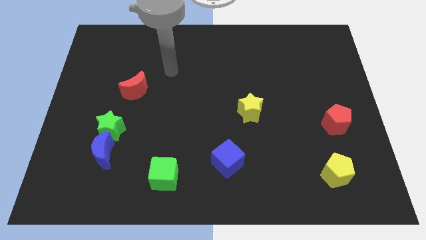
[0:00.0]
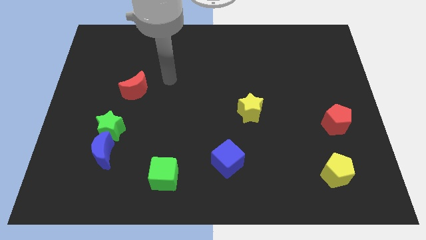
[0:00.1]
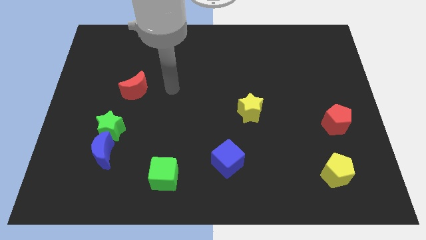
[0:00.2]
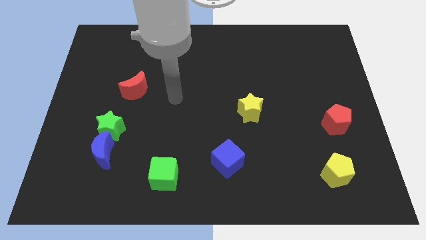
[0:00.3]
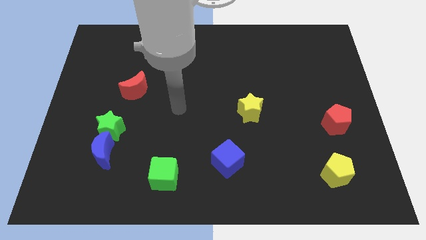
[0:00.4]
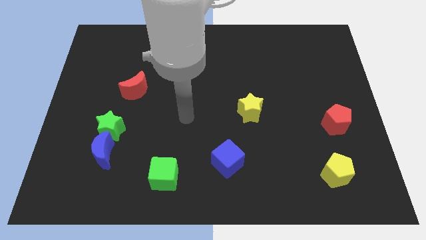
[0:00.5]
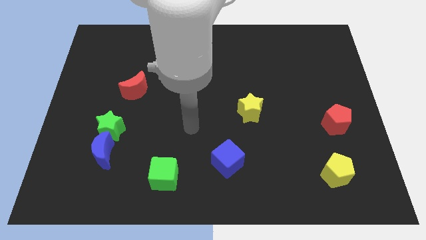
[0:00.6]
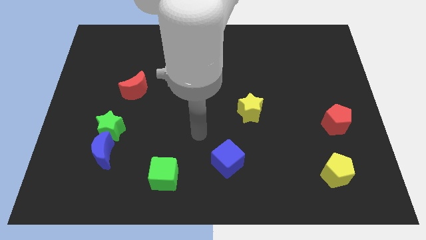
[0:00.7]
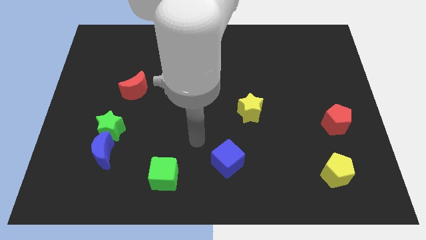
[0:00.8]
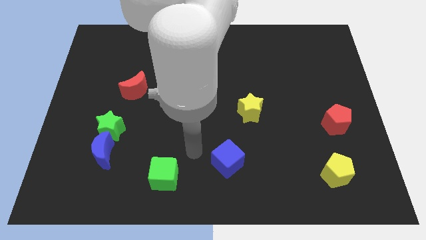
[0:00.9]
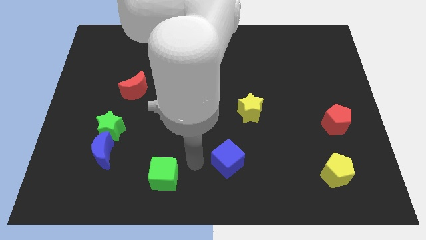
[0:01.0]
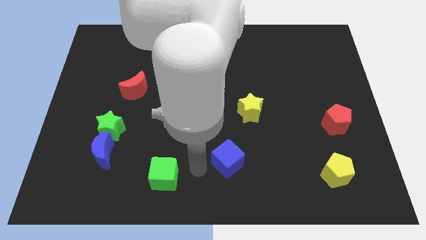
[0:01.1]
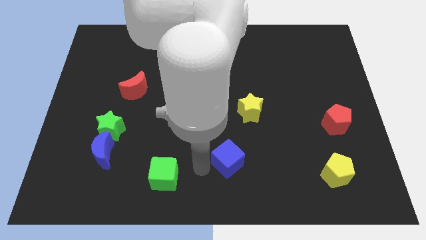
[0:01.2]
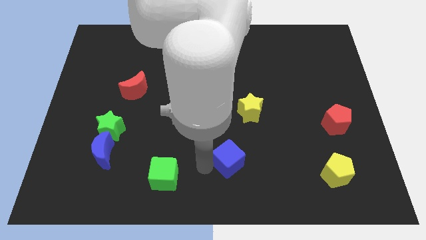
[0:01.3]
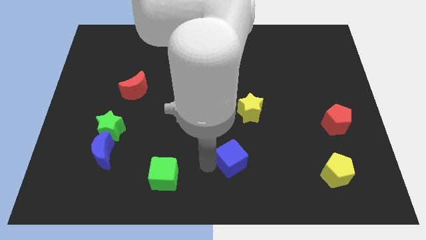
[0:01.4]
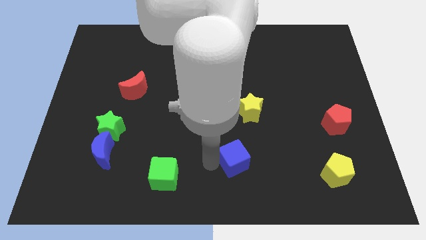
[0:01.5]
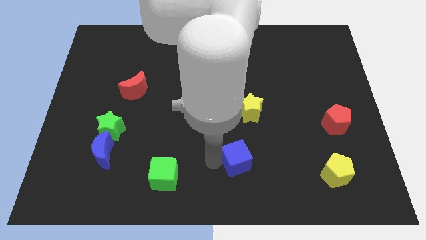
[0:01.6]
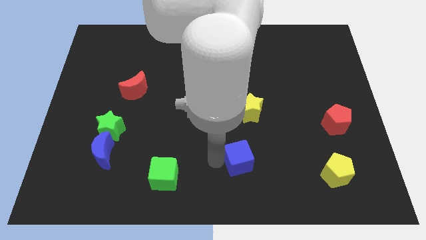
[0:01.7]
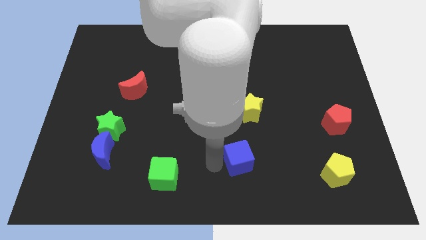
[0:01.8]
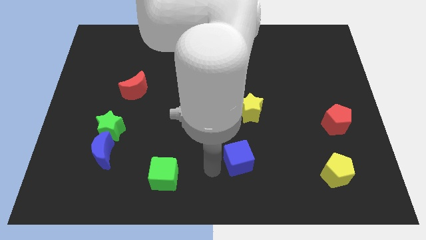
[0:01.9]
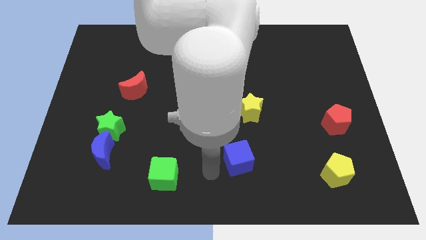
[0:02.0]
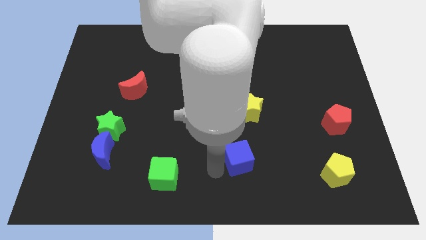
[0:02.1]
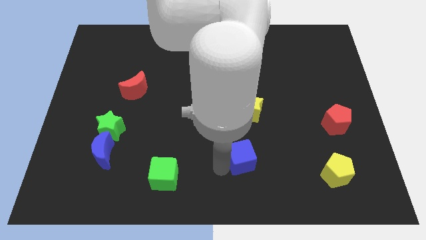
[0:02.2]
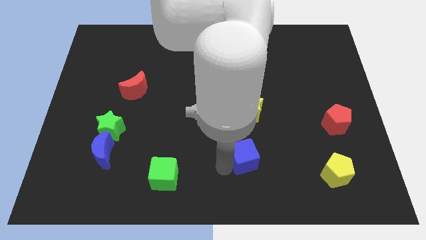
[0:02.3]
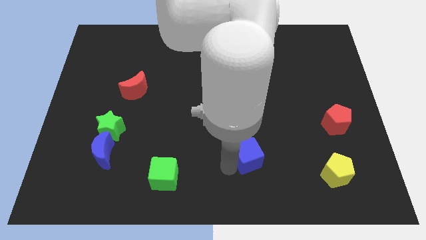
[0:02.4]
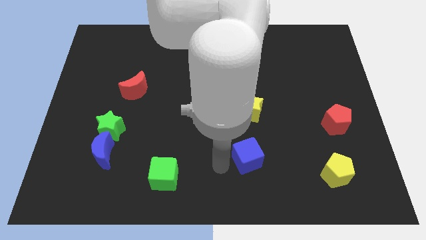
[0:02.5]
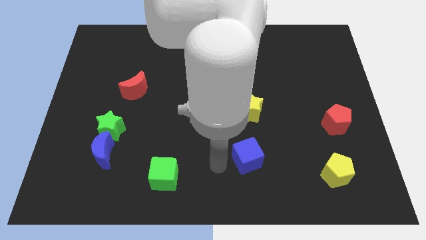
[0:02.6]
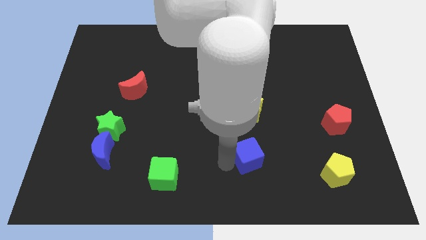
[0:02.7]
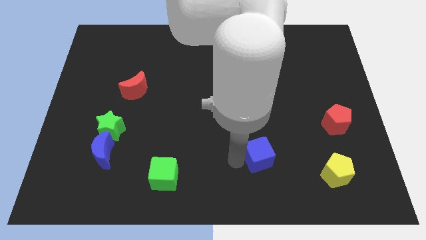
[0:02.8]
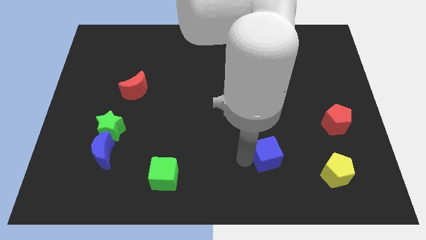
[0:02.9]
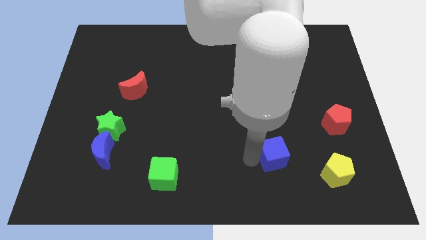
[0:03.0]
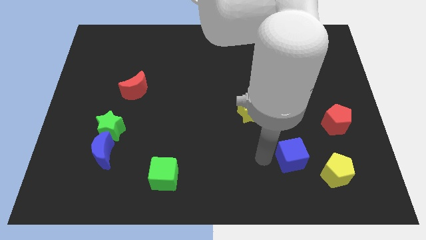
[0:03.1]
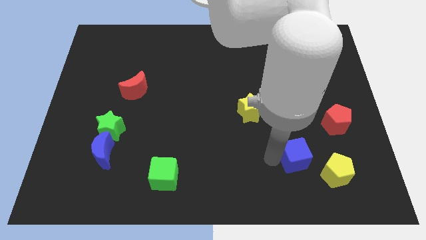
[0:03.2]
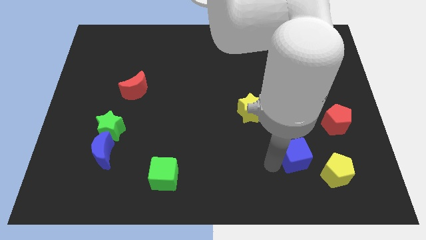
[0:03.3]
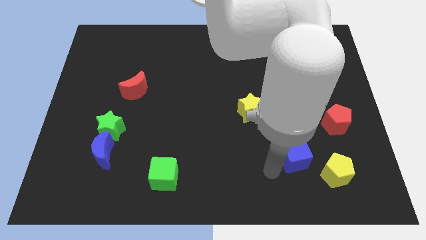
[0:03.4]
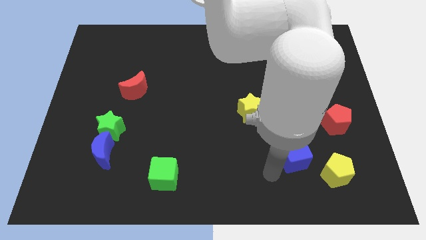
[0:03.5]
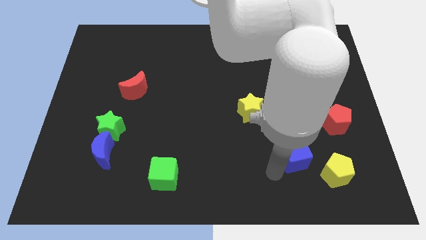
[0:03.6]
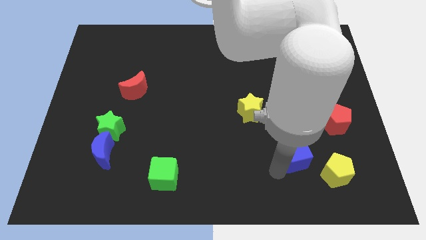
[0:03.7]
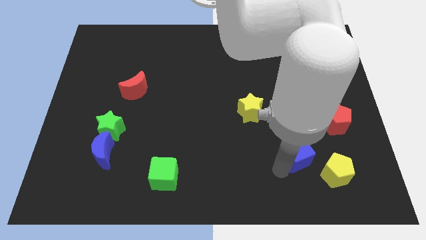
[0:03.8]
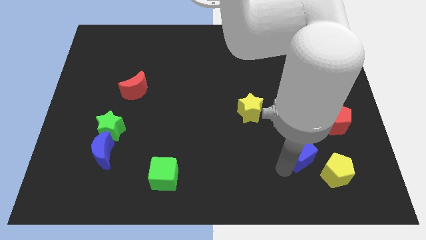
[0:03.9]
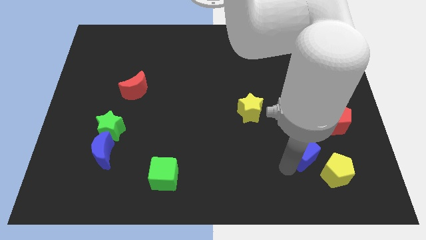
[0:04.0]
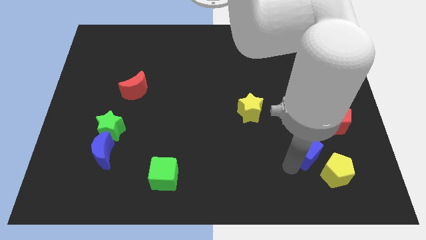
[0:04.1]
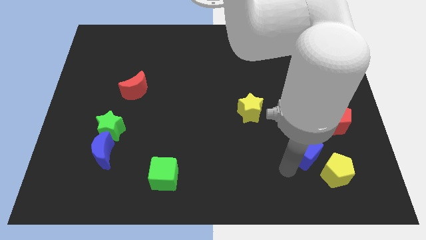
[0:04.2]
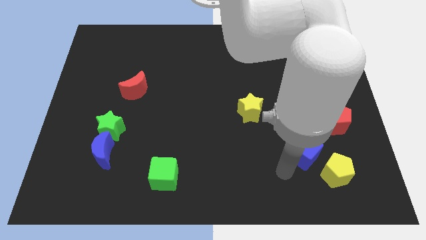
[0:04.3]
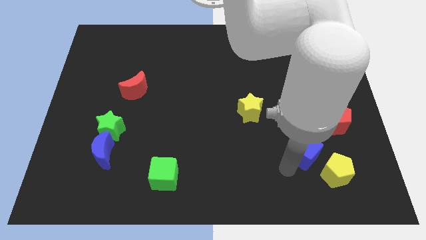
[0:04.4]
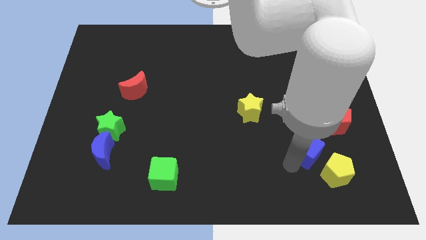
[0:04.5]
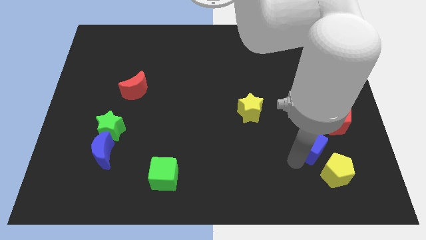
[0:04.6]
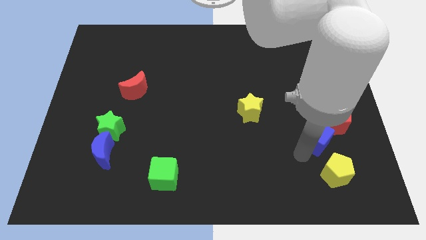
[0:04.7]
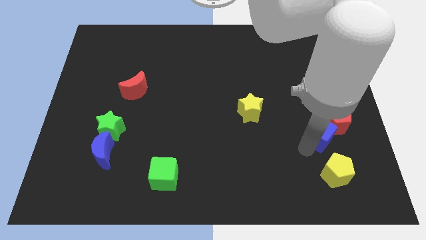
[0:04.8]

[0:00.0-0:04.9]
put the blue cube to the red pentagon

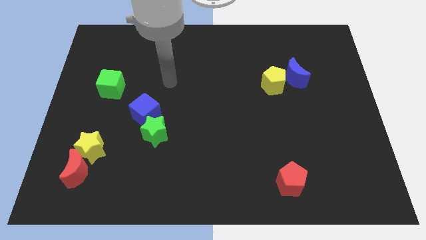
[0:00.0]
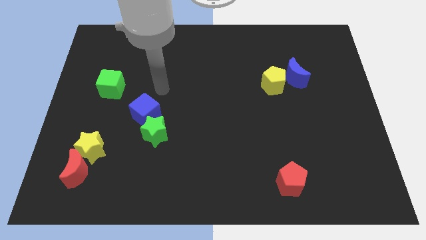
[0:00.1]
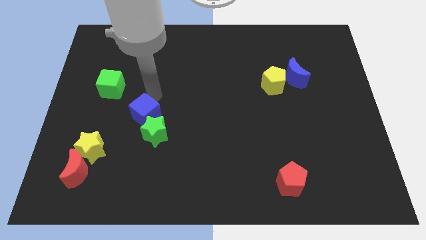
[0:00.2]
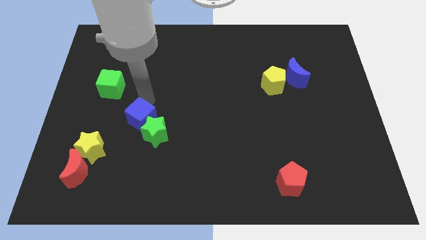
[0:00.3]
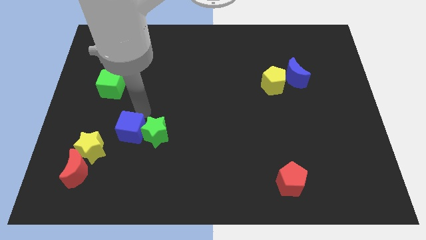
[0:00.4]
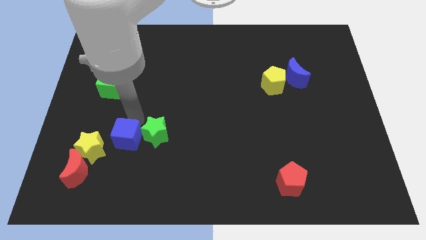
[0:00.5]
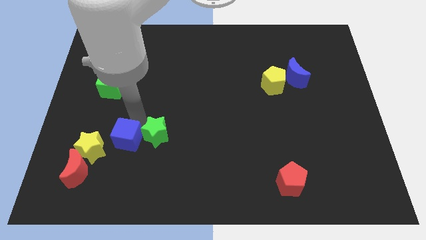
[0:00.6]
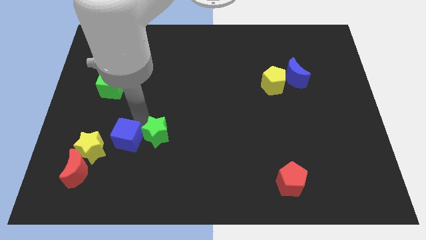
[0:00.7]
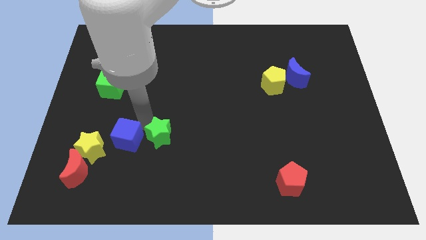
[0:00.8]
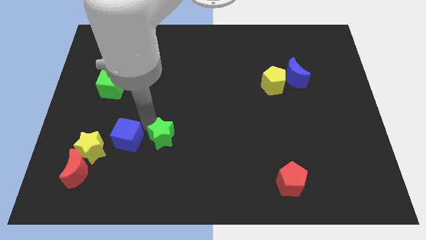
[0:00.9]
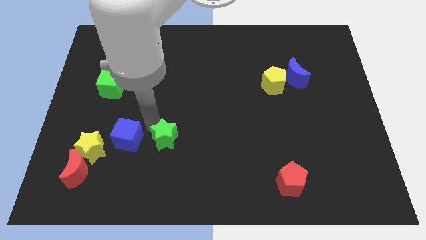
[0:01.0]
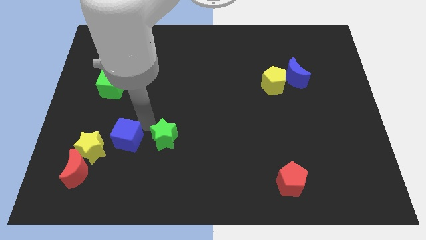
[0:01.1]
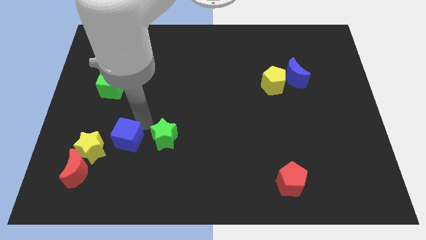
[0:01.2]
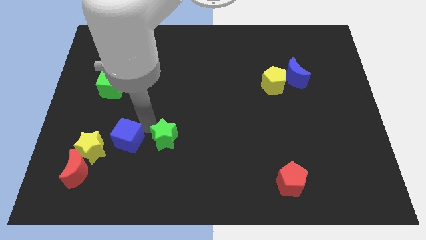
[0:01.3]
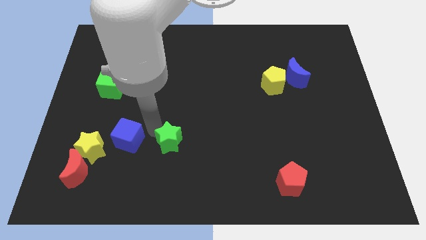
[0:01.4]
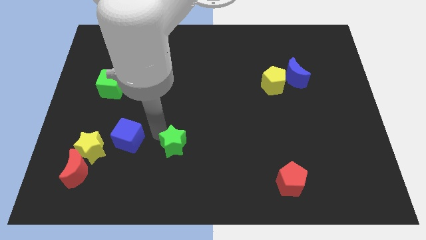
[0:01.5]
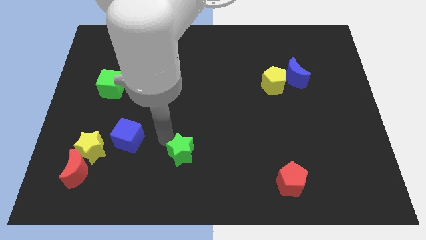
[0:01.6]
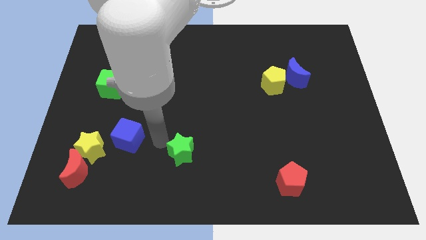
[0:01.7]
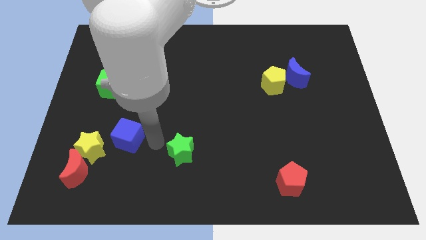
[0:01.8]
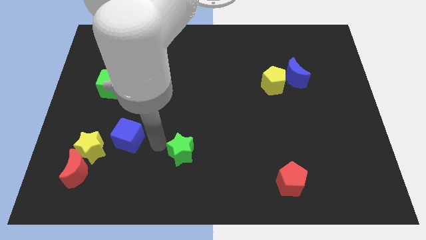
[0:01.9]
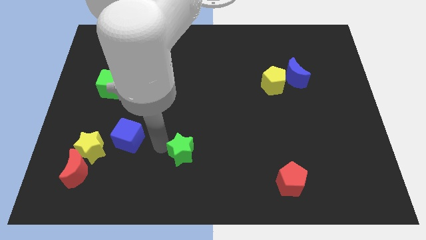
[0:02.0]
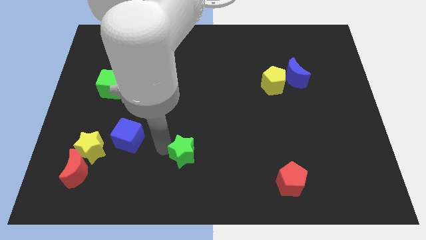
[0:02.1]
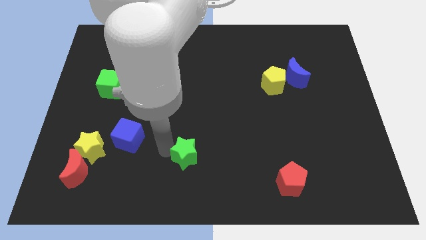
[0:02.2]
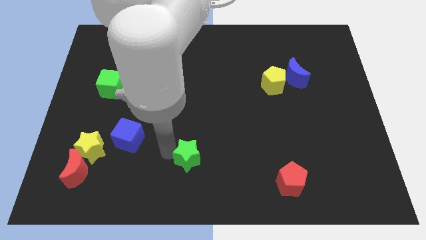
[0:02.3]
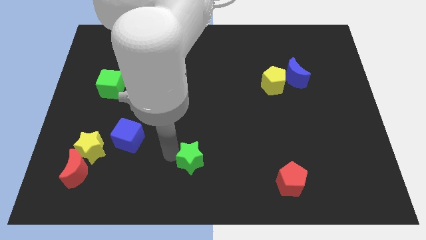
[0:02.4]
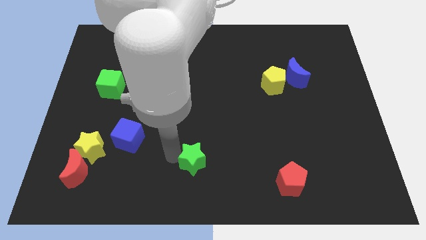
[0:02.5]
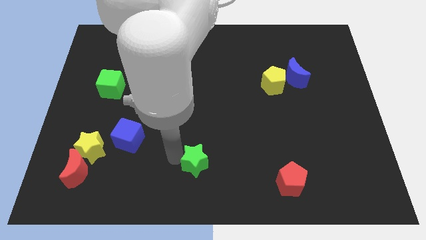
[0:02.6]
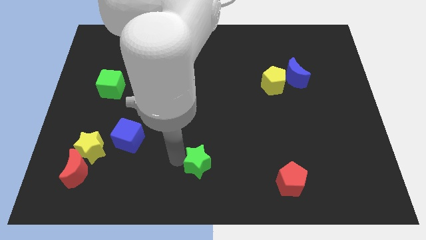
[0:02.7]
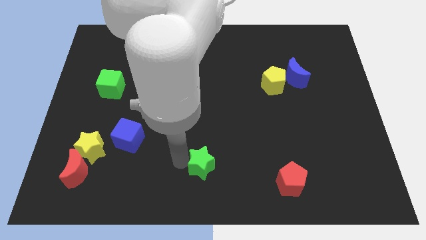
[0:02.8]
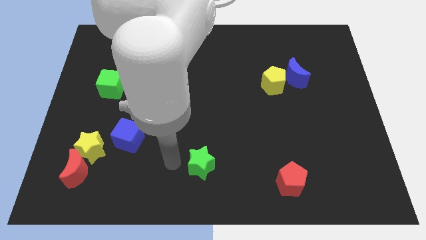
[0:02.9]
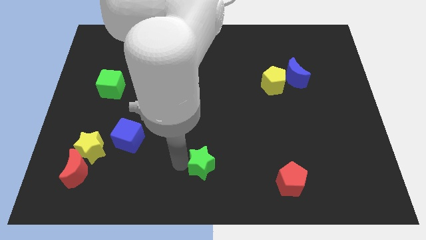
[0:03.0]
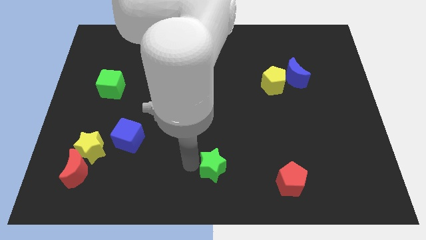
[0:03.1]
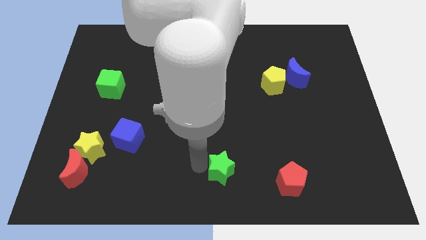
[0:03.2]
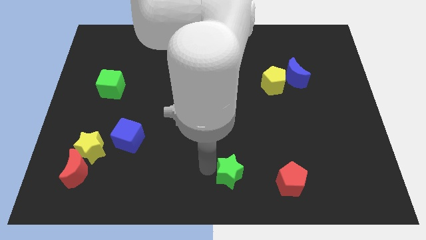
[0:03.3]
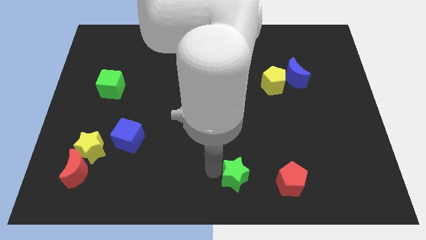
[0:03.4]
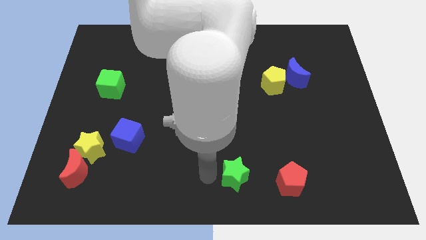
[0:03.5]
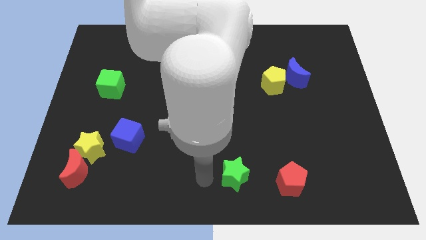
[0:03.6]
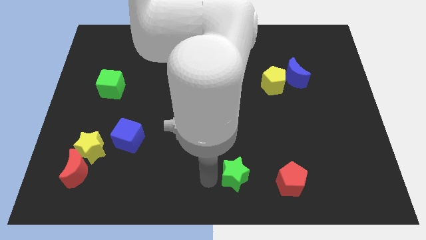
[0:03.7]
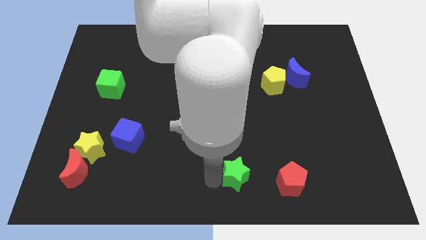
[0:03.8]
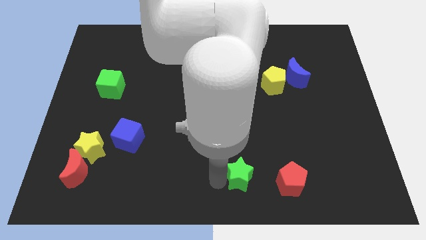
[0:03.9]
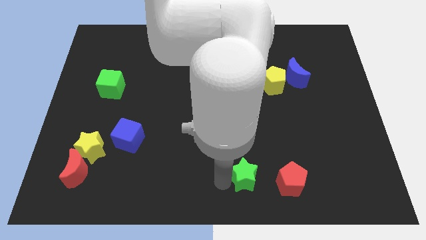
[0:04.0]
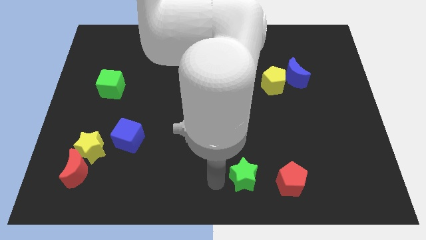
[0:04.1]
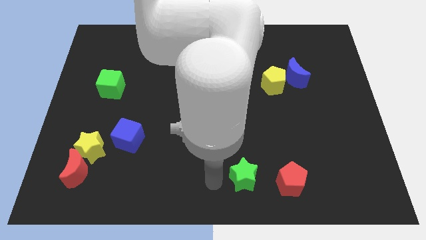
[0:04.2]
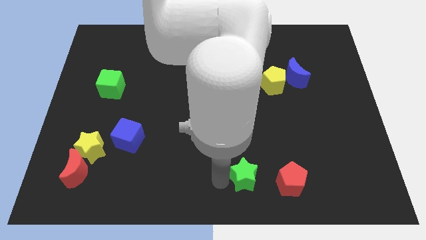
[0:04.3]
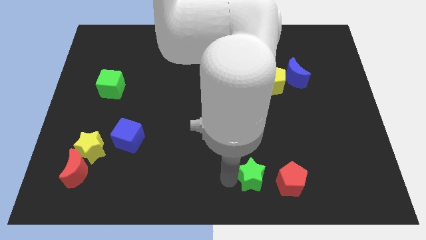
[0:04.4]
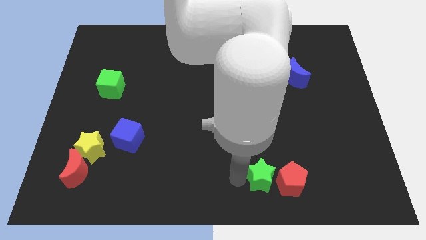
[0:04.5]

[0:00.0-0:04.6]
slide the green star to the red pentagon
